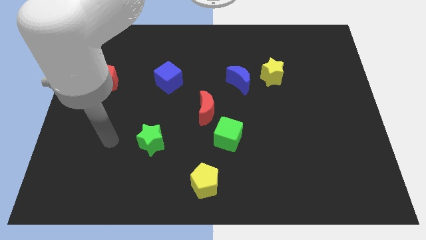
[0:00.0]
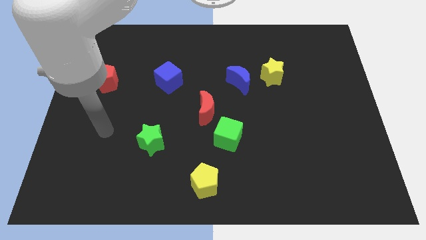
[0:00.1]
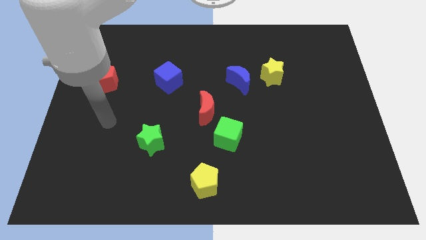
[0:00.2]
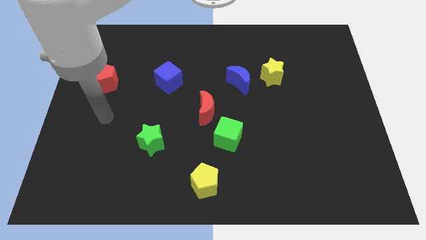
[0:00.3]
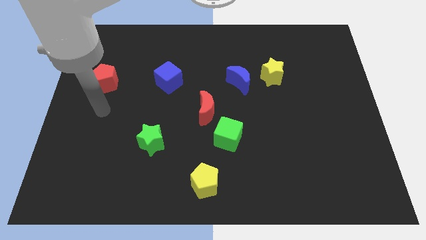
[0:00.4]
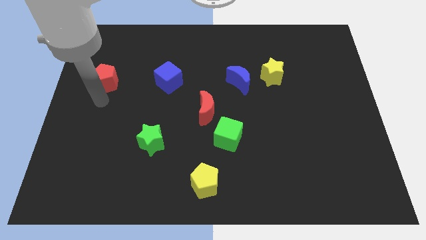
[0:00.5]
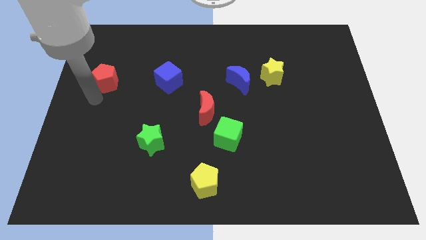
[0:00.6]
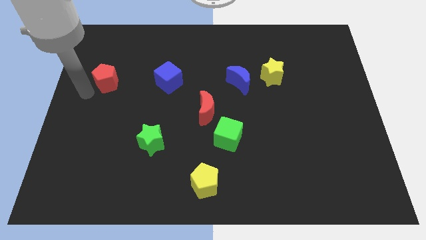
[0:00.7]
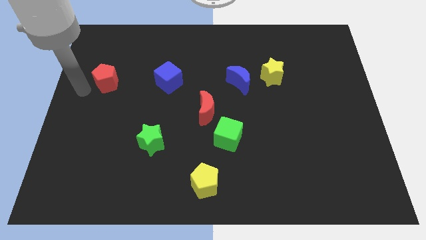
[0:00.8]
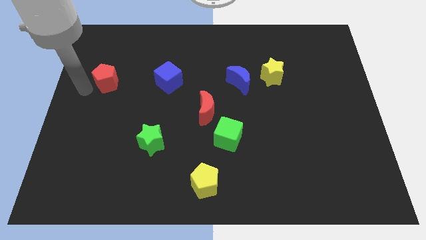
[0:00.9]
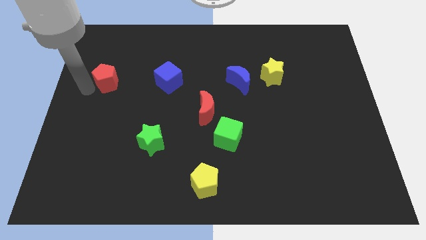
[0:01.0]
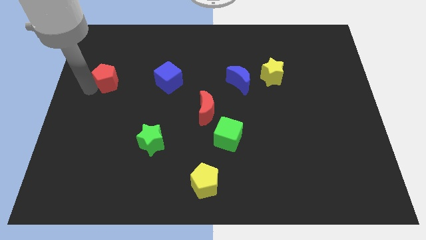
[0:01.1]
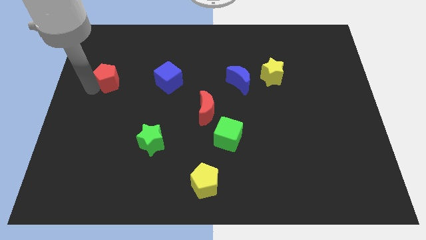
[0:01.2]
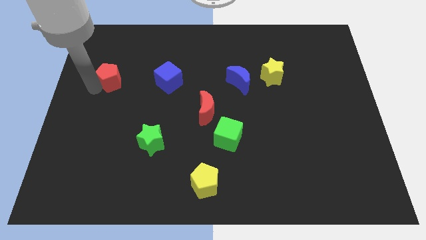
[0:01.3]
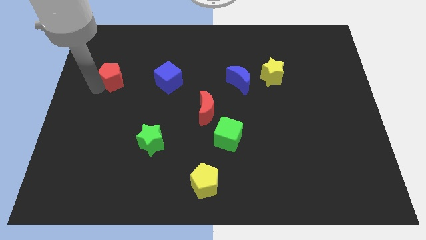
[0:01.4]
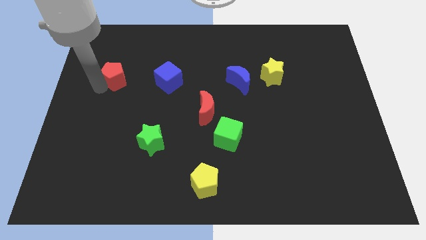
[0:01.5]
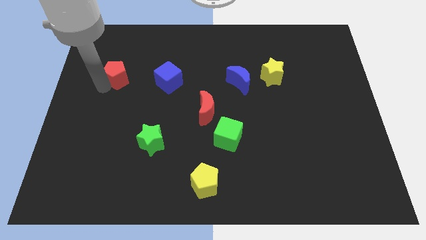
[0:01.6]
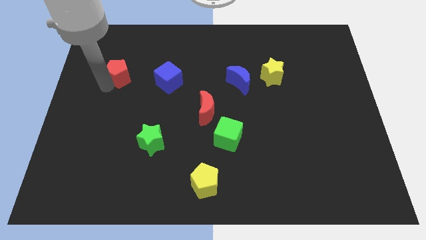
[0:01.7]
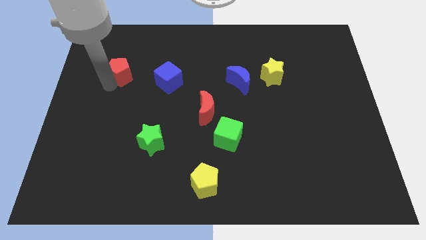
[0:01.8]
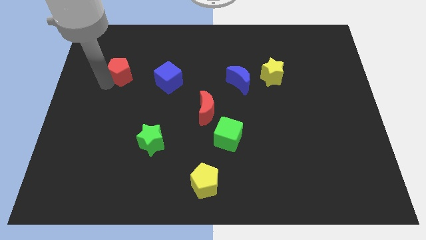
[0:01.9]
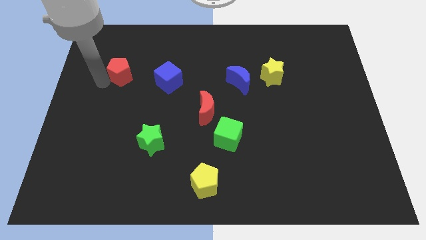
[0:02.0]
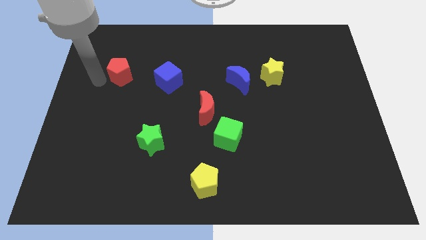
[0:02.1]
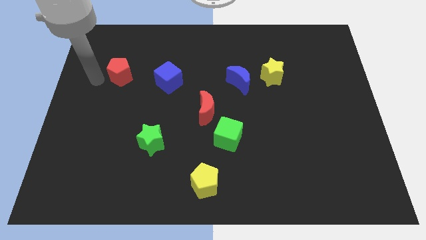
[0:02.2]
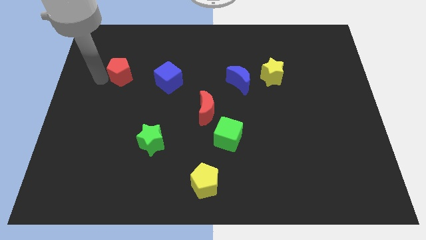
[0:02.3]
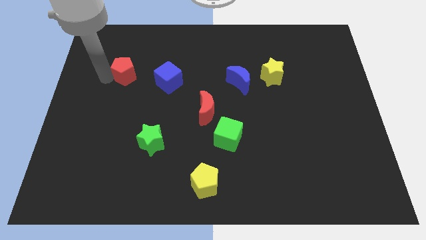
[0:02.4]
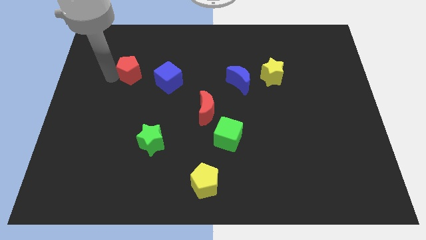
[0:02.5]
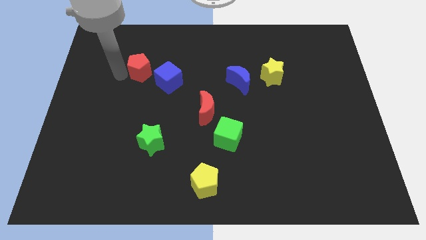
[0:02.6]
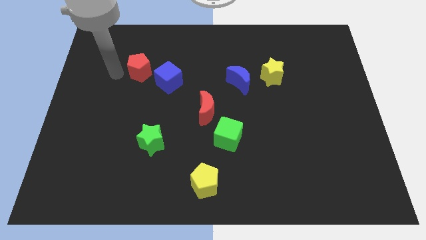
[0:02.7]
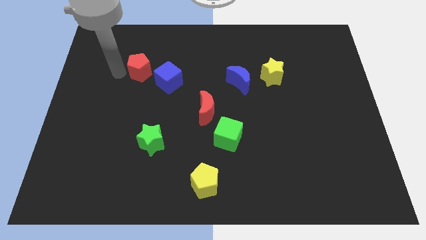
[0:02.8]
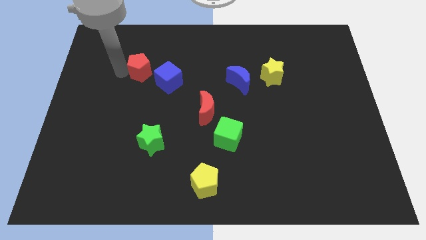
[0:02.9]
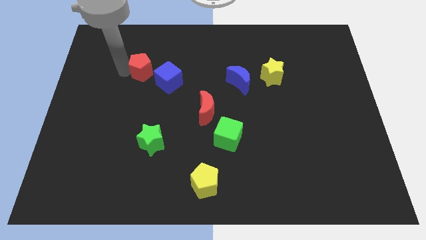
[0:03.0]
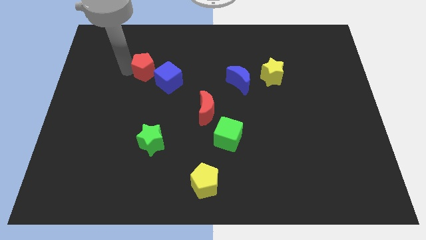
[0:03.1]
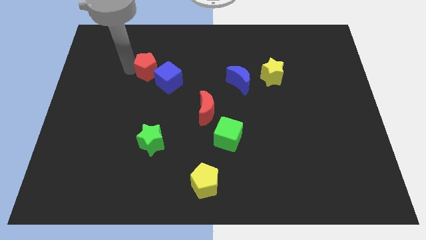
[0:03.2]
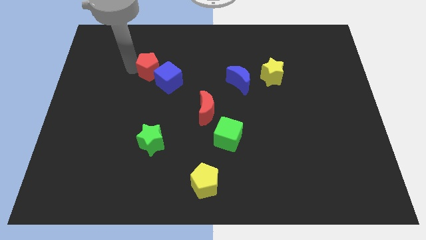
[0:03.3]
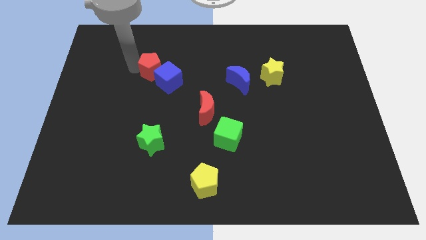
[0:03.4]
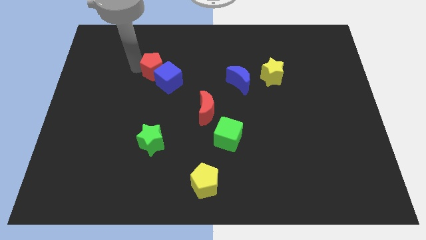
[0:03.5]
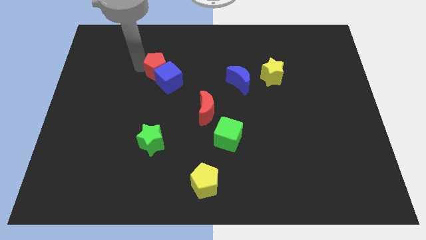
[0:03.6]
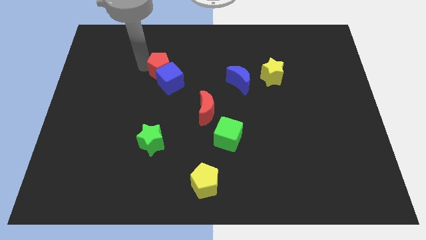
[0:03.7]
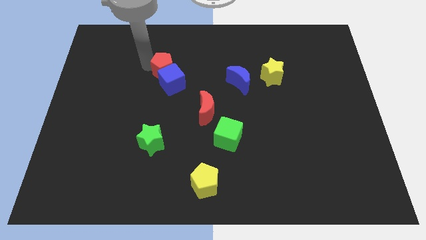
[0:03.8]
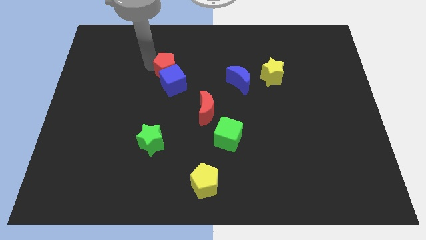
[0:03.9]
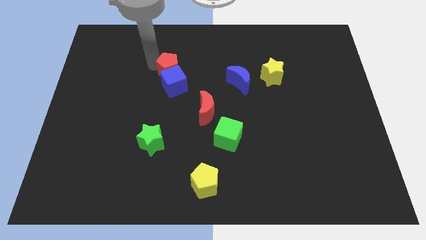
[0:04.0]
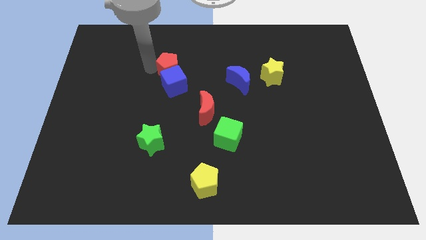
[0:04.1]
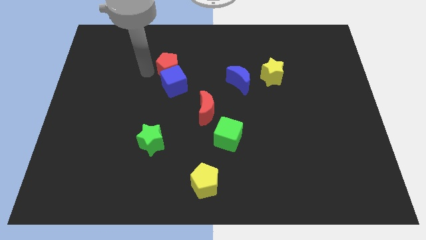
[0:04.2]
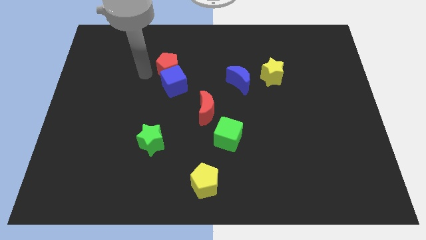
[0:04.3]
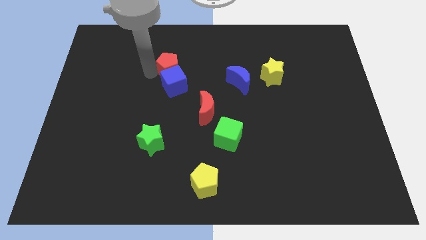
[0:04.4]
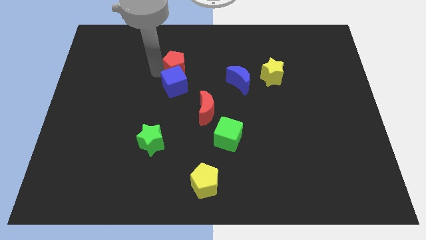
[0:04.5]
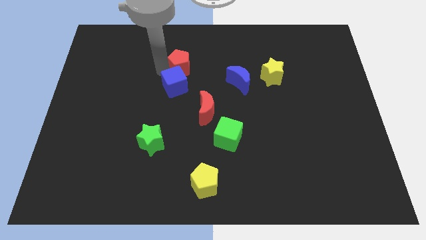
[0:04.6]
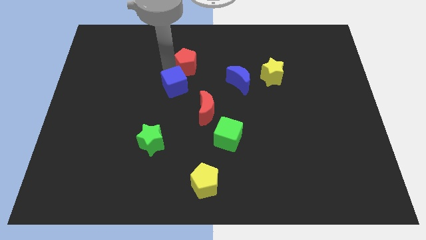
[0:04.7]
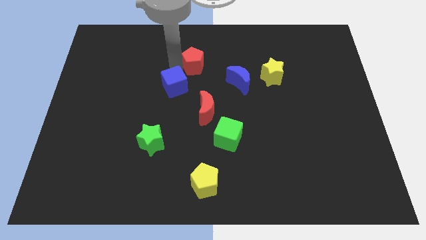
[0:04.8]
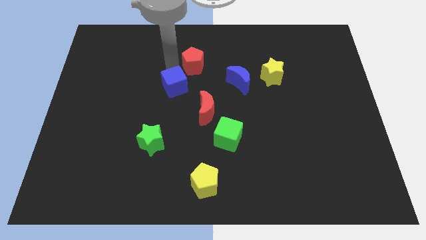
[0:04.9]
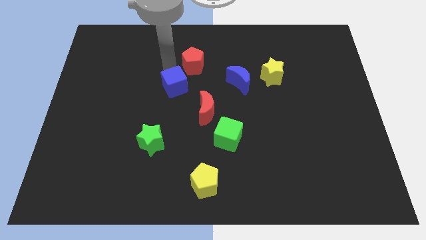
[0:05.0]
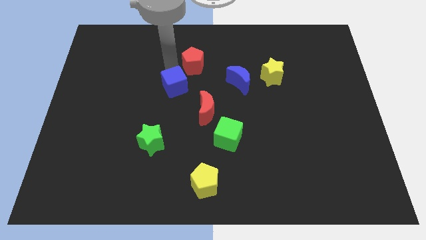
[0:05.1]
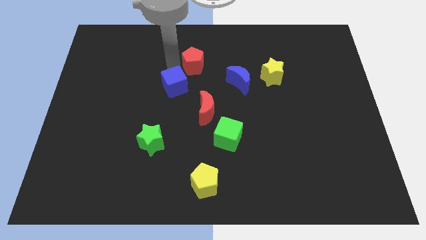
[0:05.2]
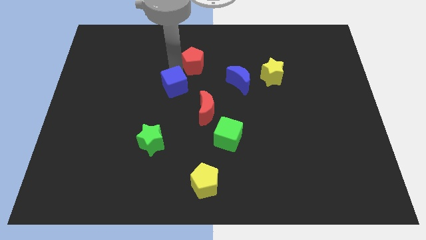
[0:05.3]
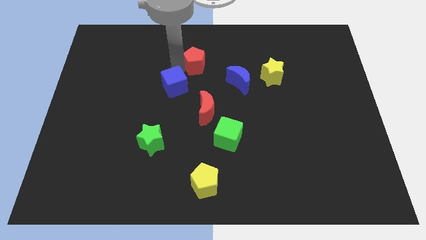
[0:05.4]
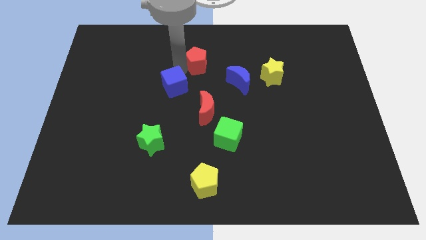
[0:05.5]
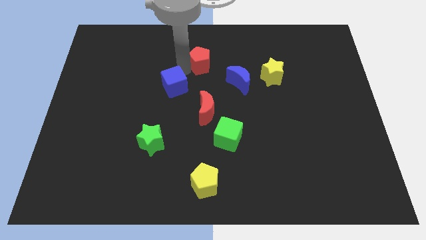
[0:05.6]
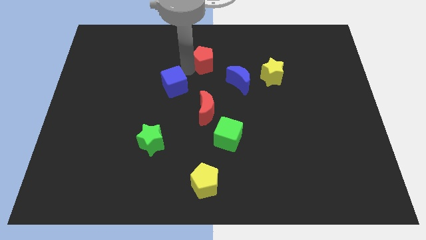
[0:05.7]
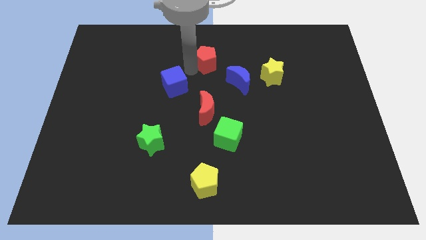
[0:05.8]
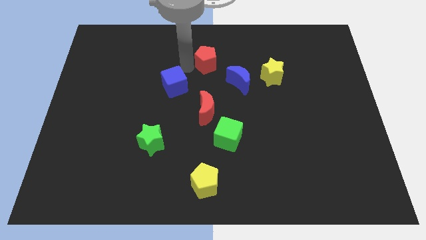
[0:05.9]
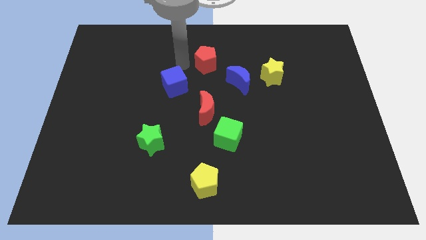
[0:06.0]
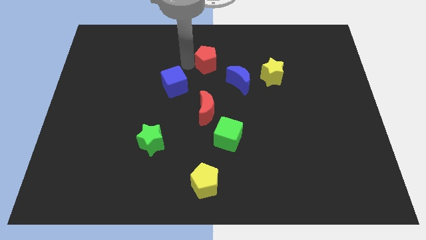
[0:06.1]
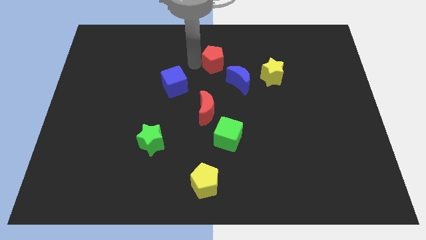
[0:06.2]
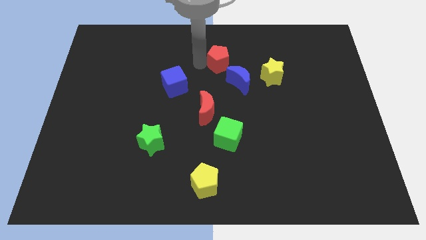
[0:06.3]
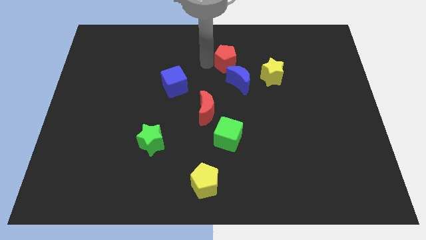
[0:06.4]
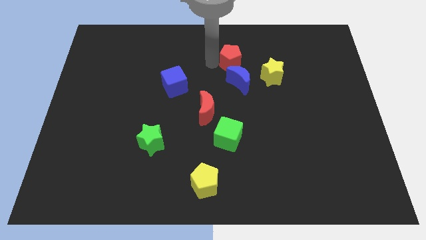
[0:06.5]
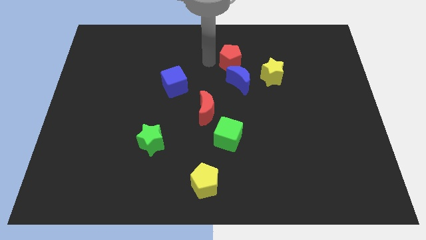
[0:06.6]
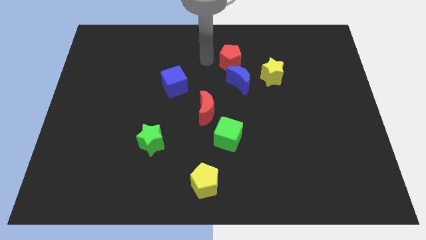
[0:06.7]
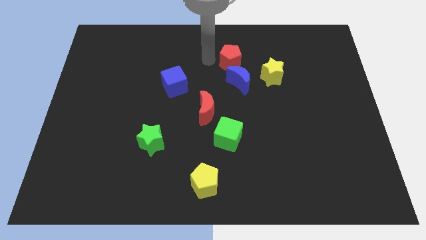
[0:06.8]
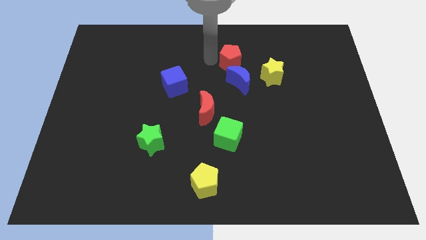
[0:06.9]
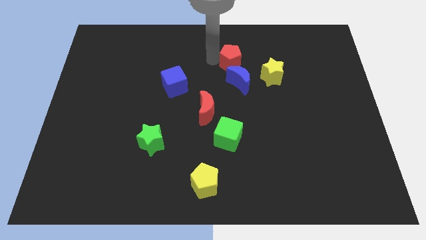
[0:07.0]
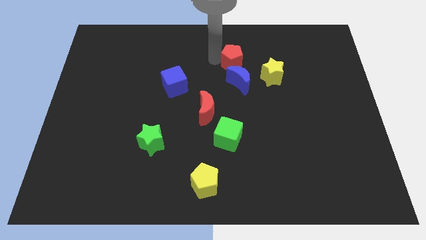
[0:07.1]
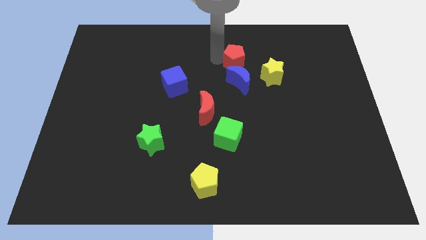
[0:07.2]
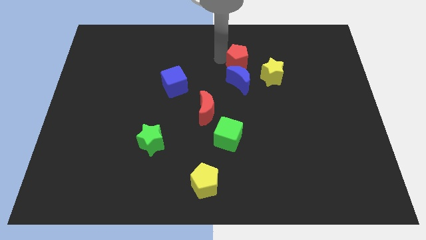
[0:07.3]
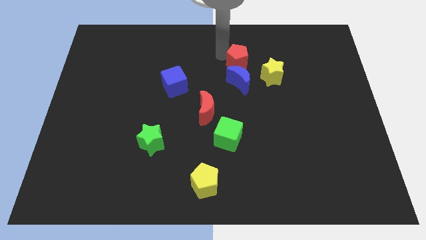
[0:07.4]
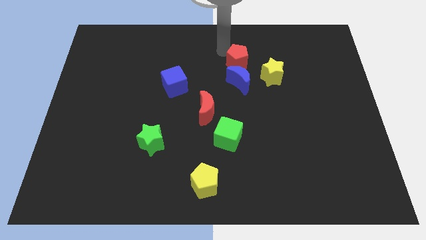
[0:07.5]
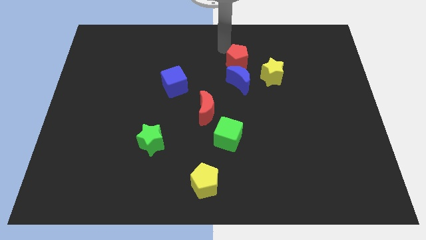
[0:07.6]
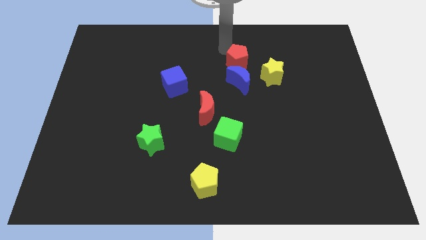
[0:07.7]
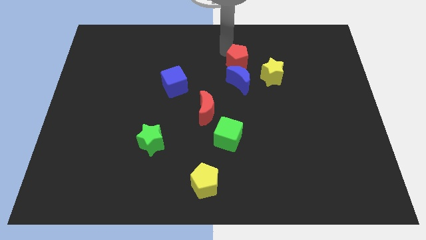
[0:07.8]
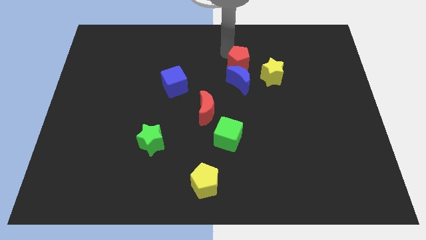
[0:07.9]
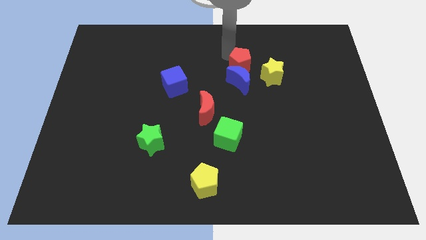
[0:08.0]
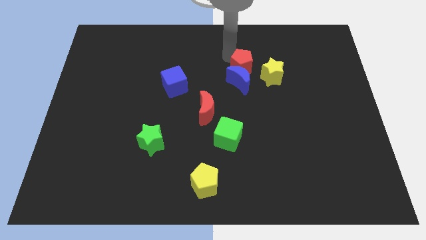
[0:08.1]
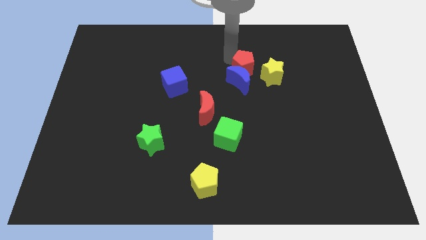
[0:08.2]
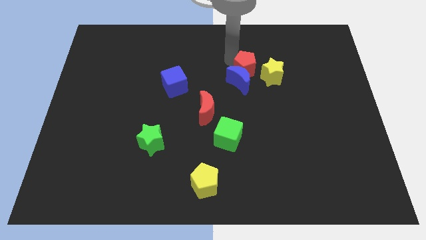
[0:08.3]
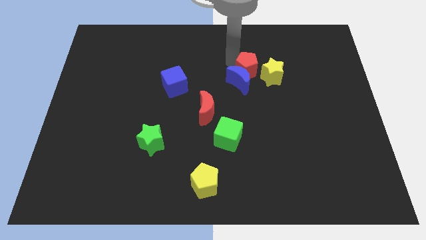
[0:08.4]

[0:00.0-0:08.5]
slide the red pentagon close to the yellow star

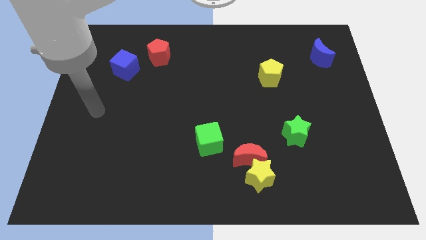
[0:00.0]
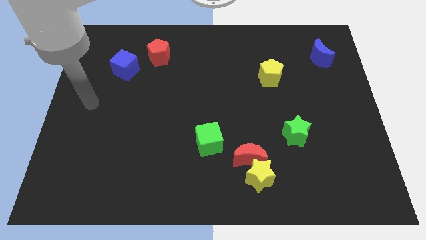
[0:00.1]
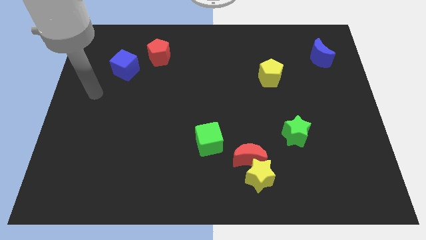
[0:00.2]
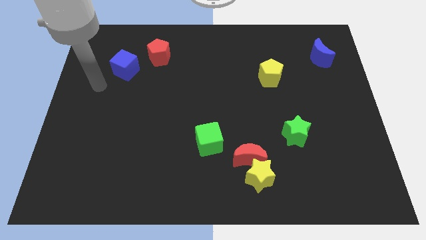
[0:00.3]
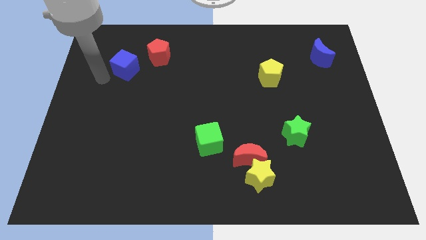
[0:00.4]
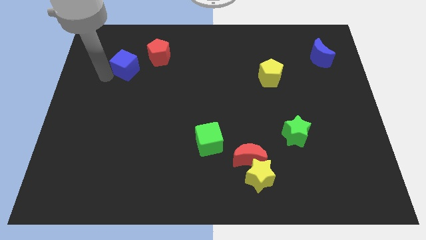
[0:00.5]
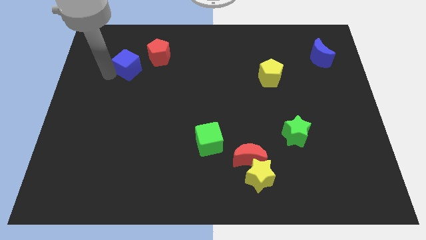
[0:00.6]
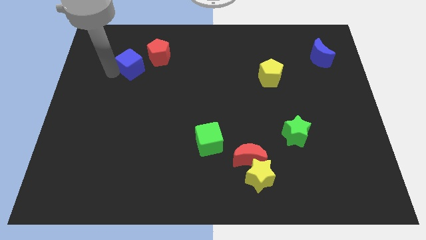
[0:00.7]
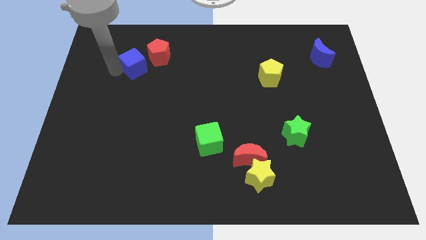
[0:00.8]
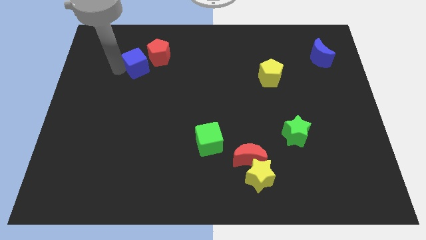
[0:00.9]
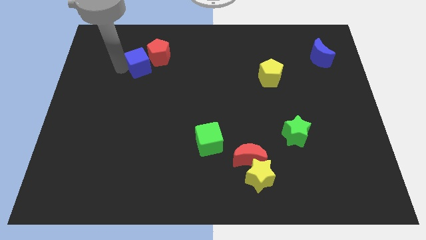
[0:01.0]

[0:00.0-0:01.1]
move the blue cube to the red pentagon
